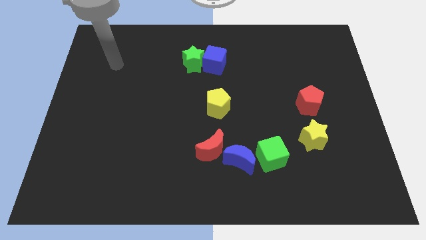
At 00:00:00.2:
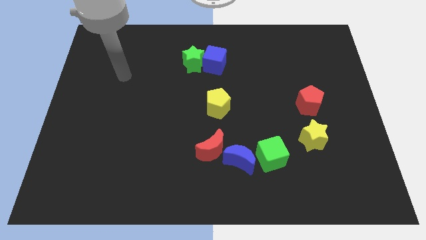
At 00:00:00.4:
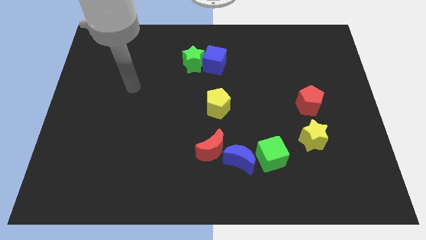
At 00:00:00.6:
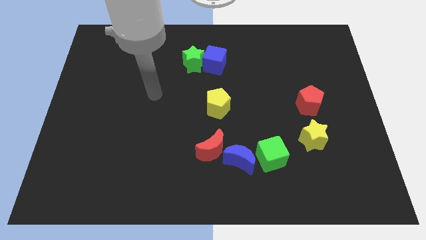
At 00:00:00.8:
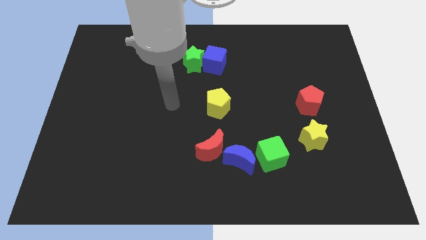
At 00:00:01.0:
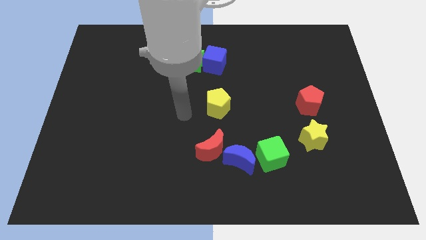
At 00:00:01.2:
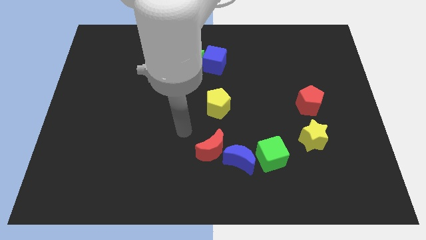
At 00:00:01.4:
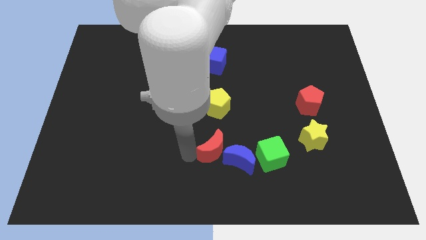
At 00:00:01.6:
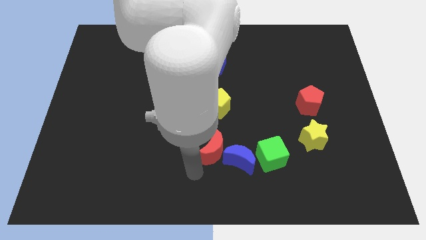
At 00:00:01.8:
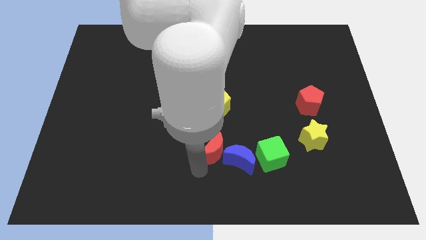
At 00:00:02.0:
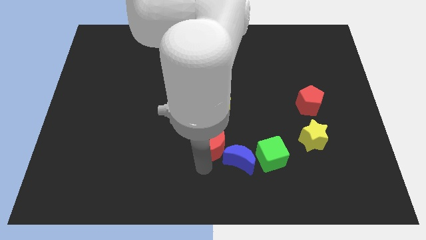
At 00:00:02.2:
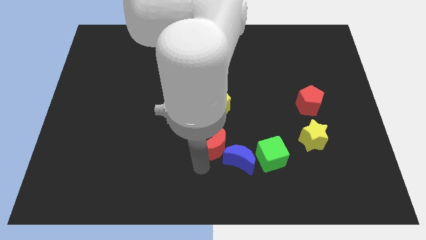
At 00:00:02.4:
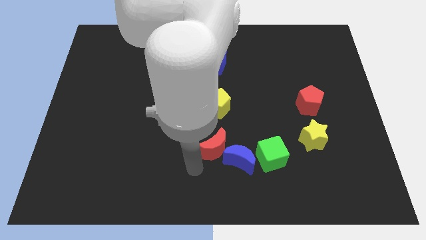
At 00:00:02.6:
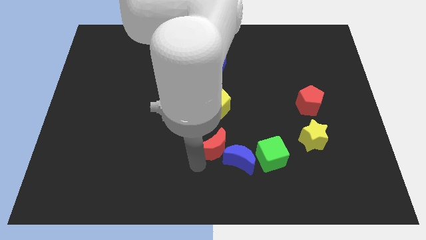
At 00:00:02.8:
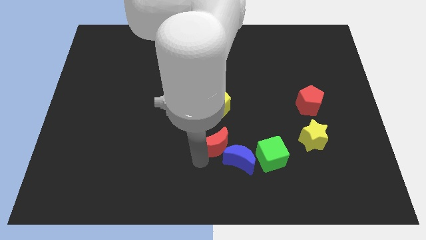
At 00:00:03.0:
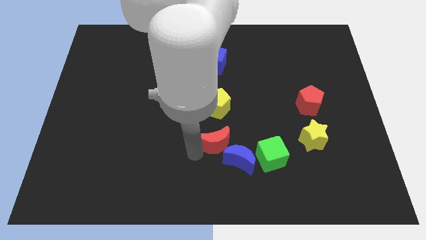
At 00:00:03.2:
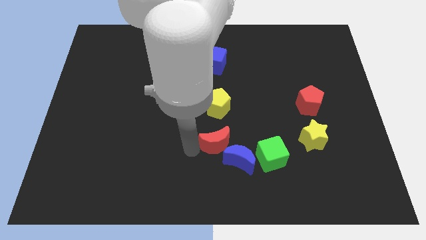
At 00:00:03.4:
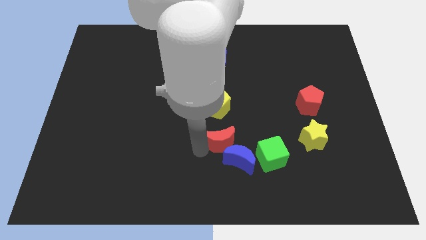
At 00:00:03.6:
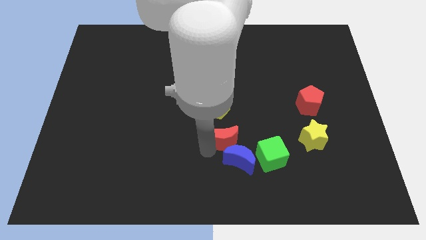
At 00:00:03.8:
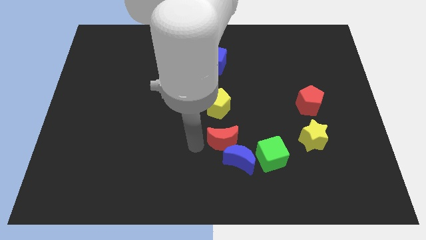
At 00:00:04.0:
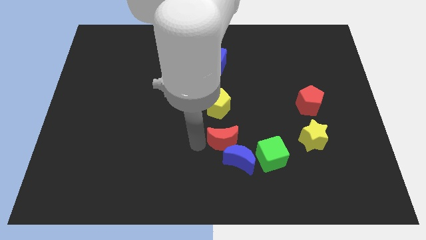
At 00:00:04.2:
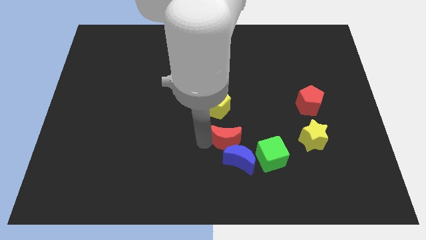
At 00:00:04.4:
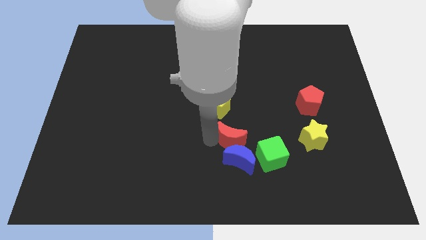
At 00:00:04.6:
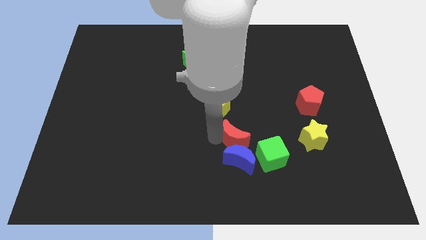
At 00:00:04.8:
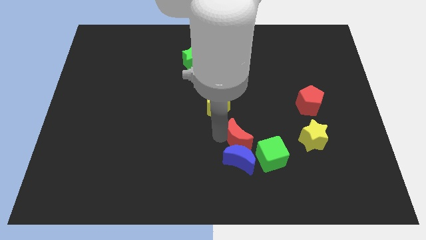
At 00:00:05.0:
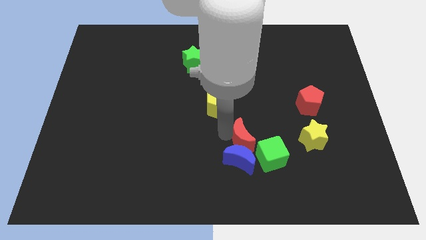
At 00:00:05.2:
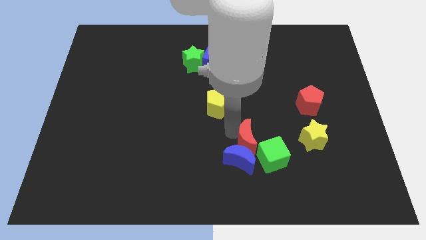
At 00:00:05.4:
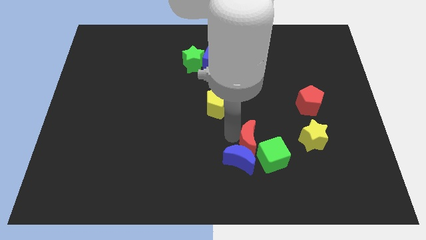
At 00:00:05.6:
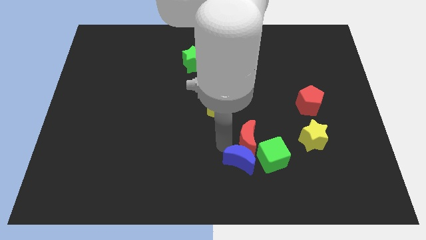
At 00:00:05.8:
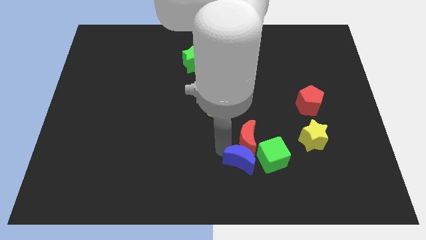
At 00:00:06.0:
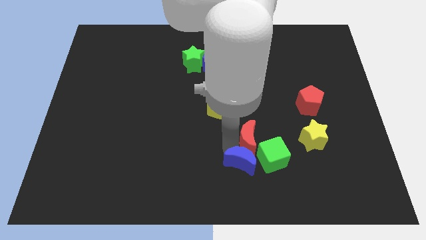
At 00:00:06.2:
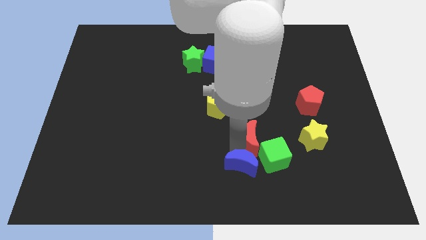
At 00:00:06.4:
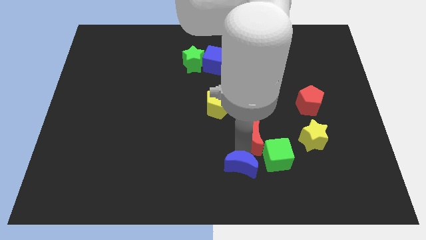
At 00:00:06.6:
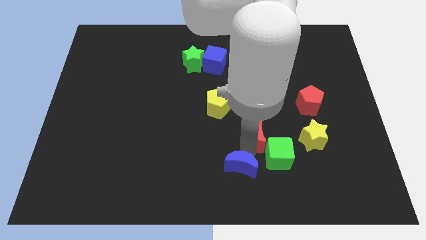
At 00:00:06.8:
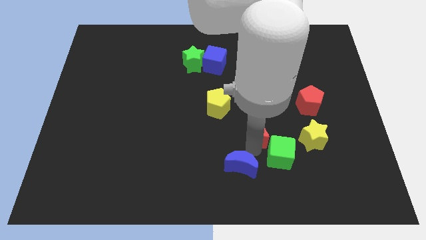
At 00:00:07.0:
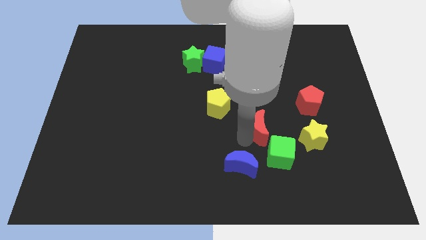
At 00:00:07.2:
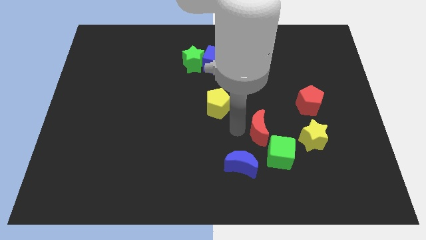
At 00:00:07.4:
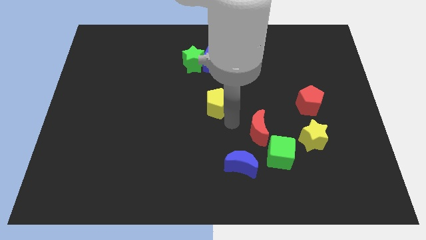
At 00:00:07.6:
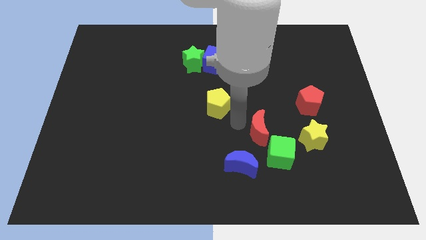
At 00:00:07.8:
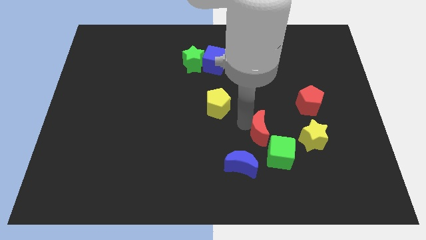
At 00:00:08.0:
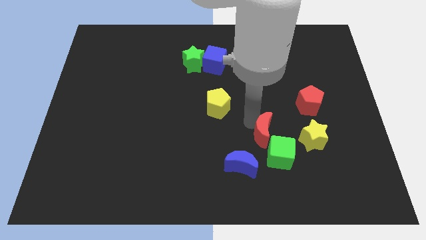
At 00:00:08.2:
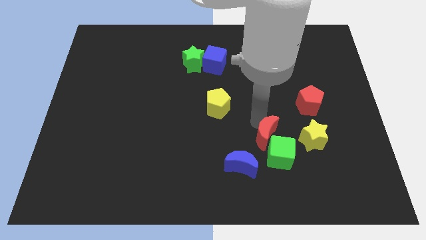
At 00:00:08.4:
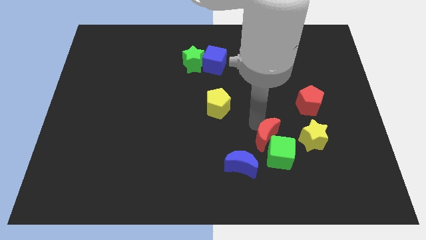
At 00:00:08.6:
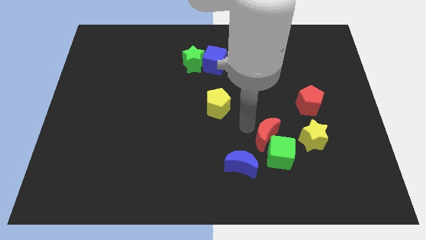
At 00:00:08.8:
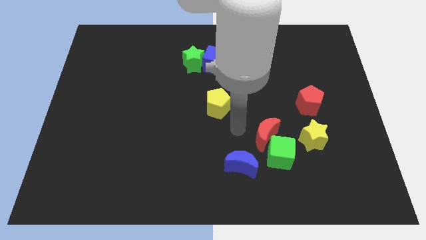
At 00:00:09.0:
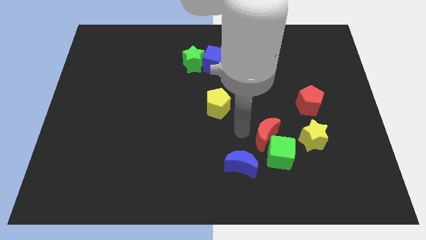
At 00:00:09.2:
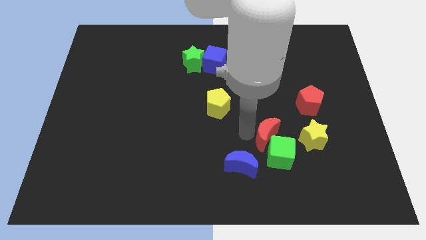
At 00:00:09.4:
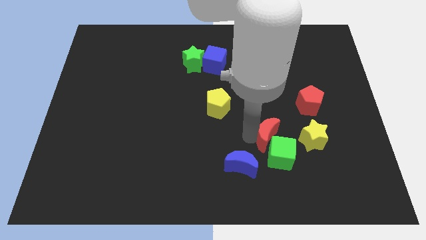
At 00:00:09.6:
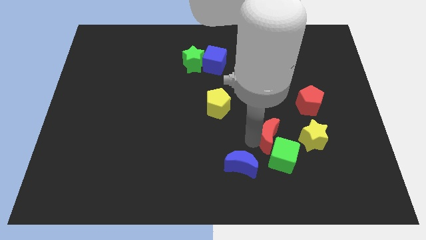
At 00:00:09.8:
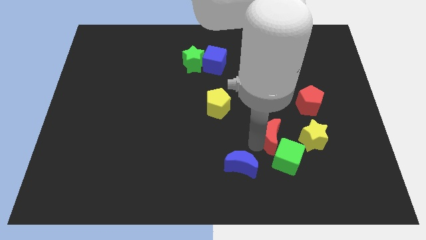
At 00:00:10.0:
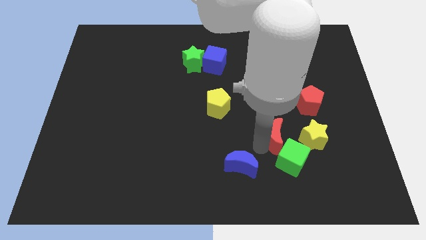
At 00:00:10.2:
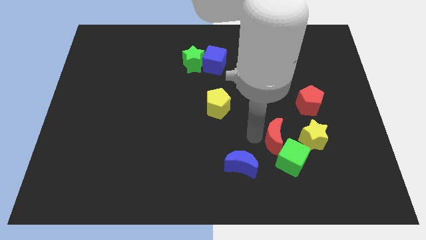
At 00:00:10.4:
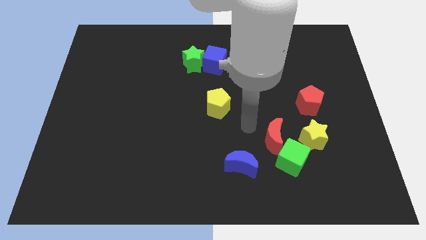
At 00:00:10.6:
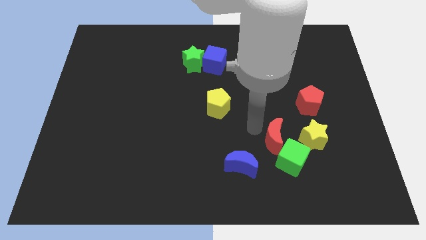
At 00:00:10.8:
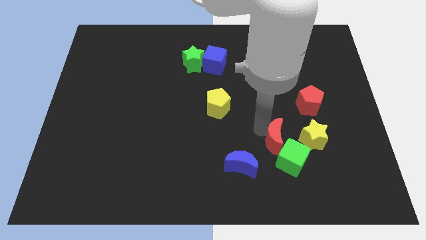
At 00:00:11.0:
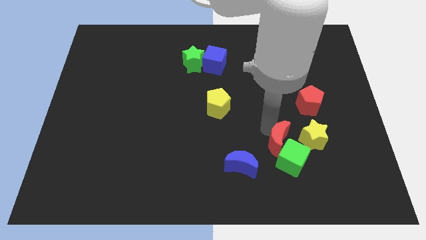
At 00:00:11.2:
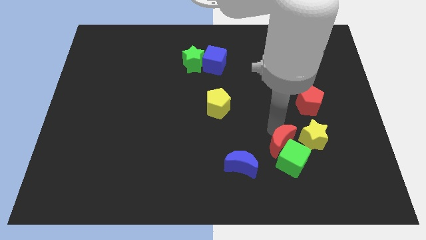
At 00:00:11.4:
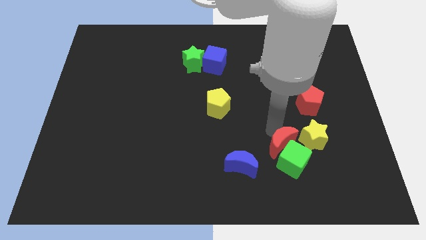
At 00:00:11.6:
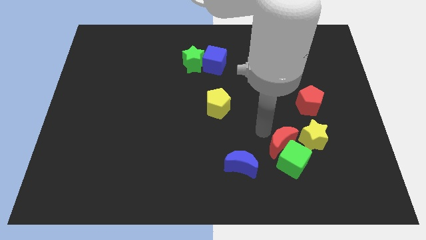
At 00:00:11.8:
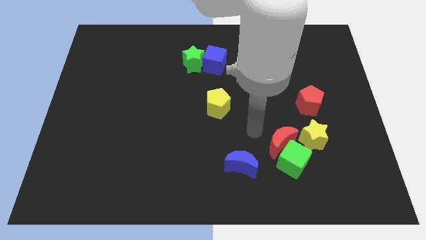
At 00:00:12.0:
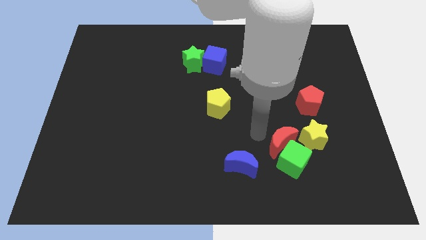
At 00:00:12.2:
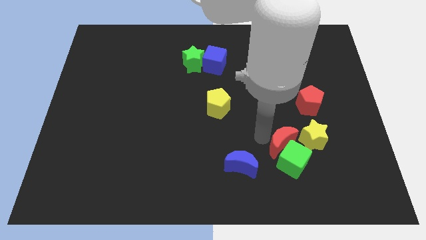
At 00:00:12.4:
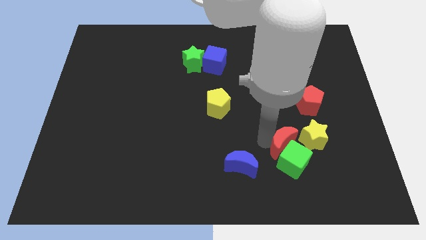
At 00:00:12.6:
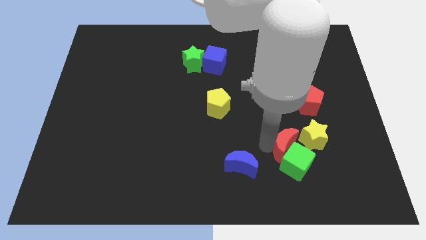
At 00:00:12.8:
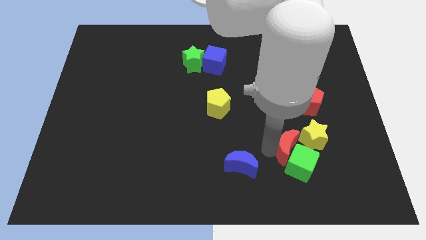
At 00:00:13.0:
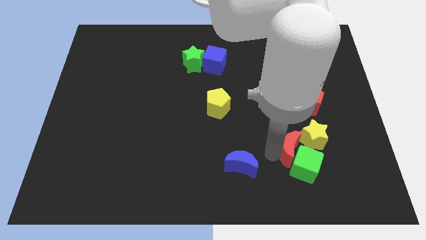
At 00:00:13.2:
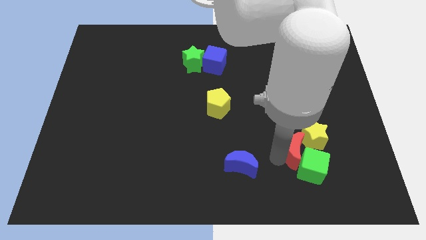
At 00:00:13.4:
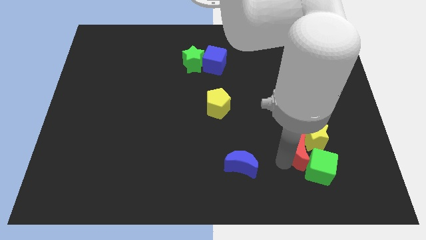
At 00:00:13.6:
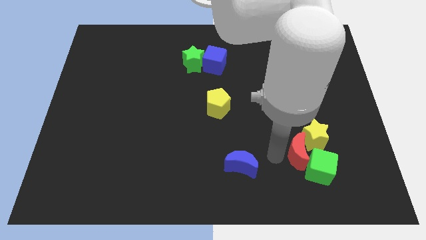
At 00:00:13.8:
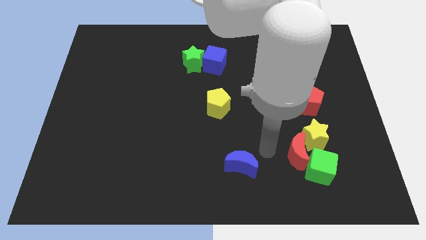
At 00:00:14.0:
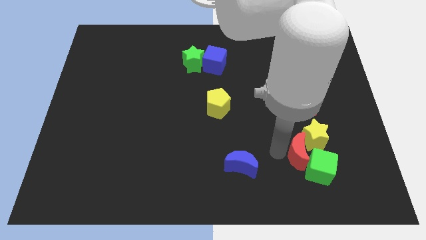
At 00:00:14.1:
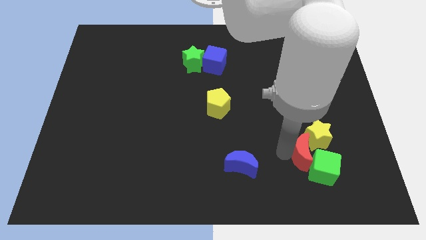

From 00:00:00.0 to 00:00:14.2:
move the red moon below the red pentagon
